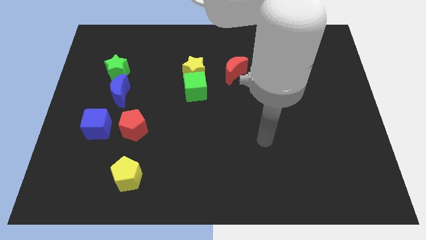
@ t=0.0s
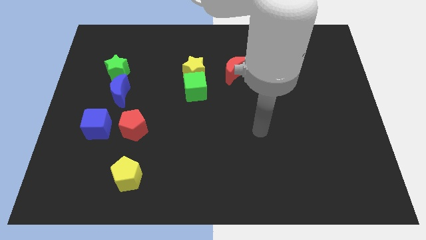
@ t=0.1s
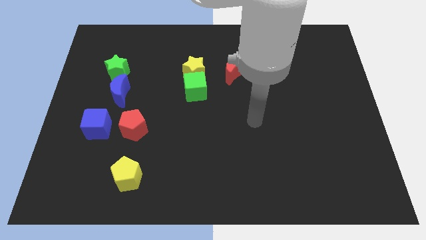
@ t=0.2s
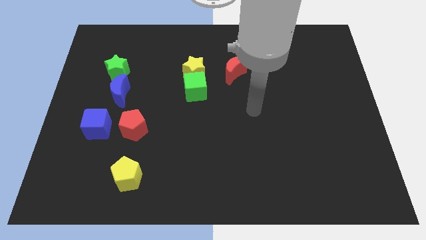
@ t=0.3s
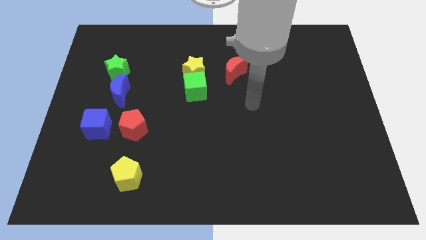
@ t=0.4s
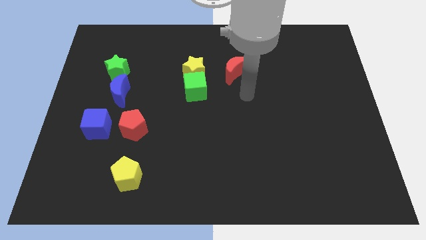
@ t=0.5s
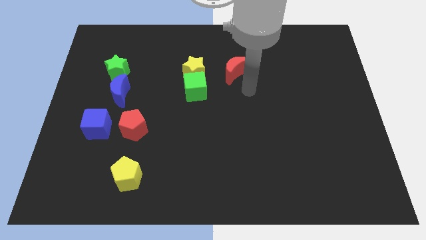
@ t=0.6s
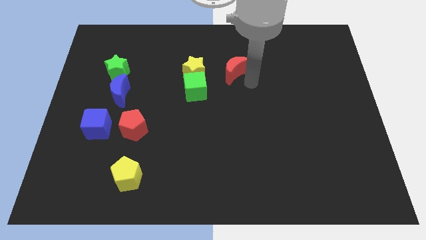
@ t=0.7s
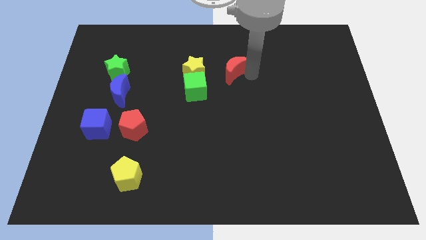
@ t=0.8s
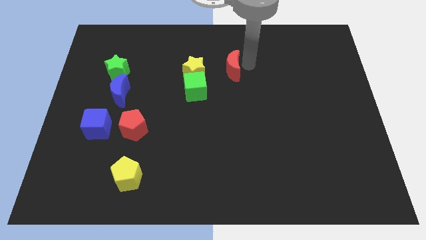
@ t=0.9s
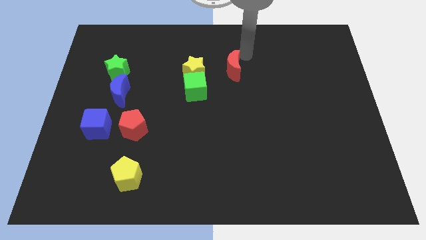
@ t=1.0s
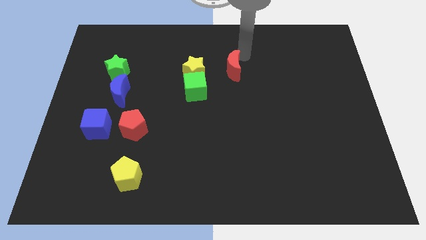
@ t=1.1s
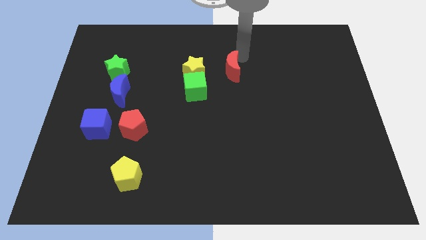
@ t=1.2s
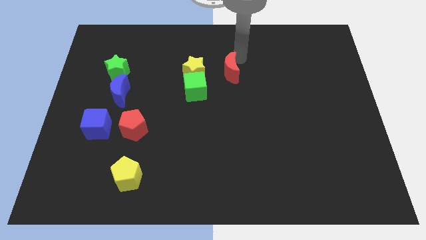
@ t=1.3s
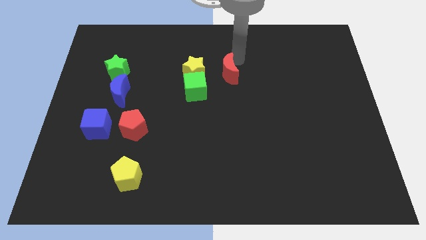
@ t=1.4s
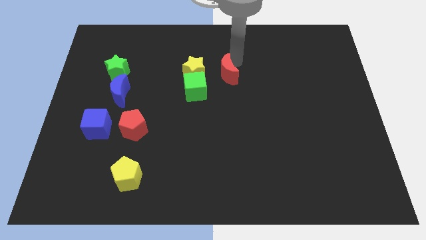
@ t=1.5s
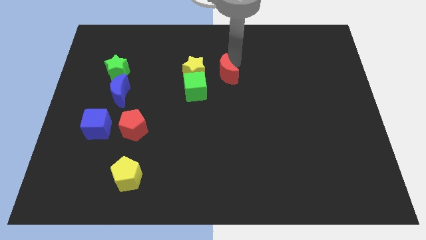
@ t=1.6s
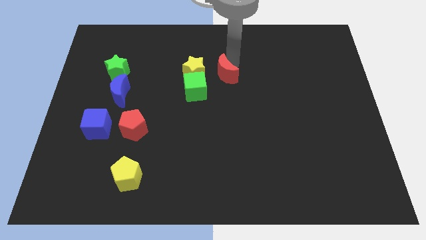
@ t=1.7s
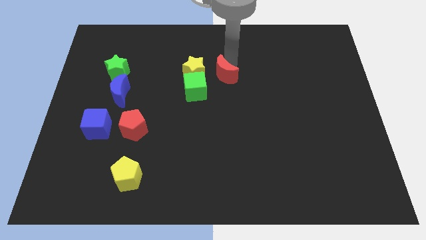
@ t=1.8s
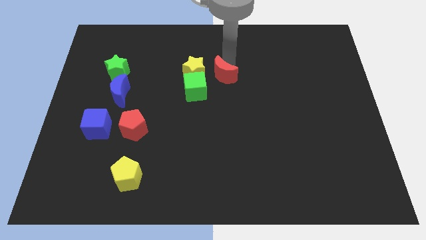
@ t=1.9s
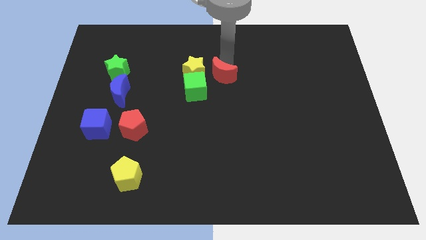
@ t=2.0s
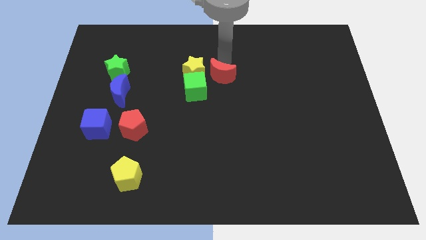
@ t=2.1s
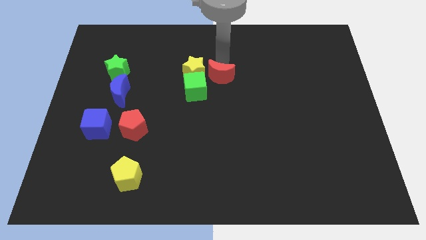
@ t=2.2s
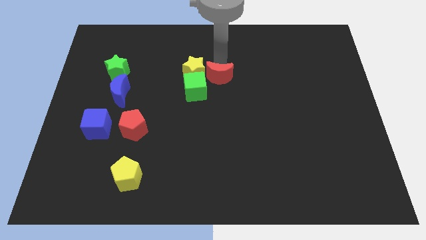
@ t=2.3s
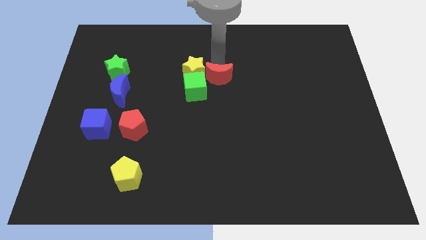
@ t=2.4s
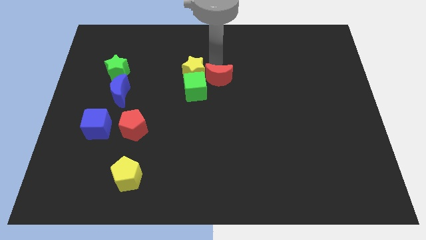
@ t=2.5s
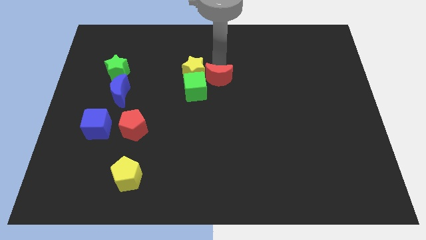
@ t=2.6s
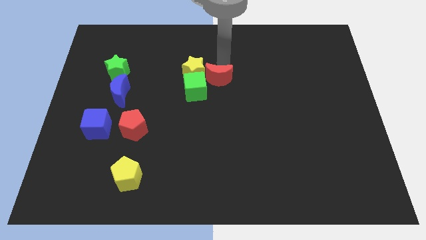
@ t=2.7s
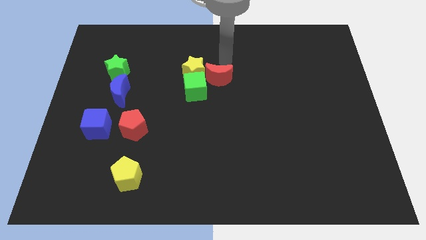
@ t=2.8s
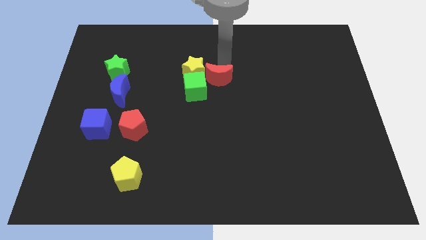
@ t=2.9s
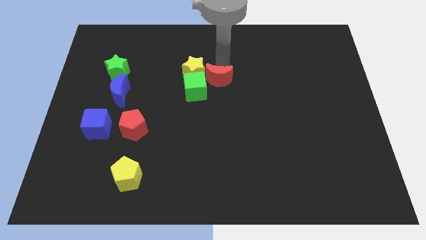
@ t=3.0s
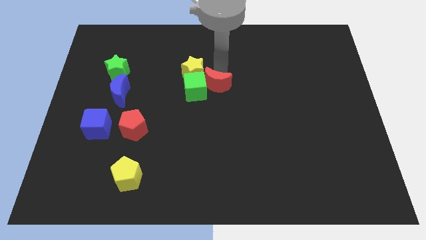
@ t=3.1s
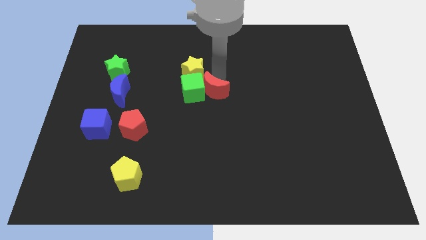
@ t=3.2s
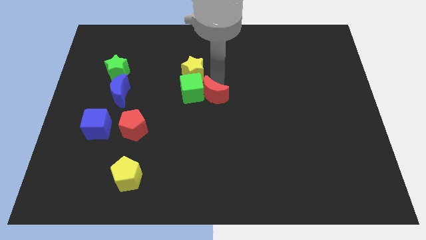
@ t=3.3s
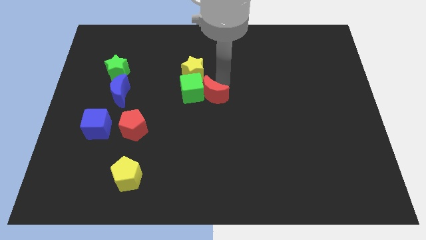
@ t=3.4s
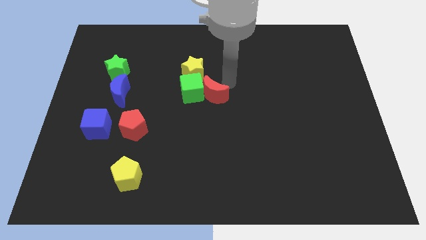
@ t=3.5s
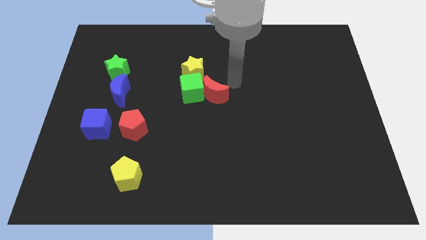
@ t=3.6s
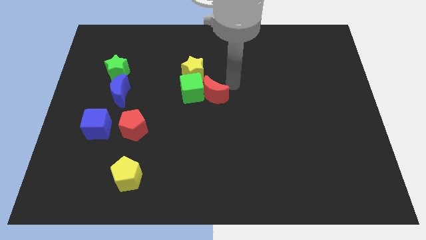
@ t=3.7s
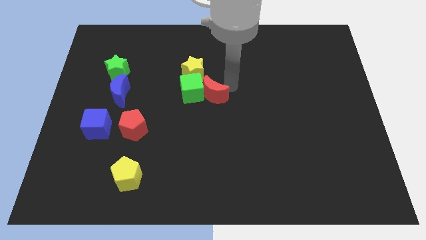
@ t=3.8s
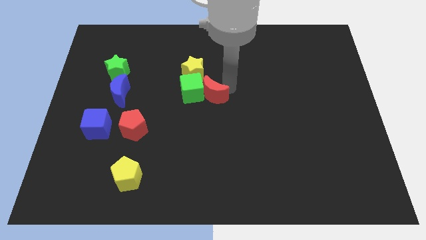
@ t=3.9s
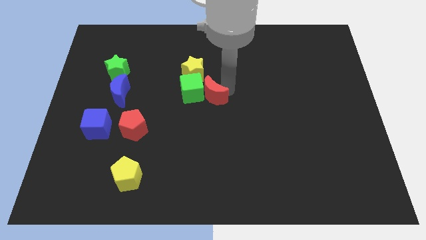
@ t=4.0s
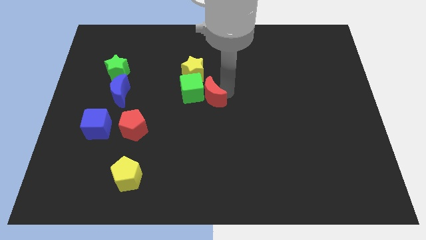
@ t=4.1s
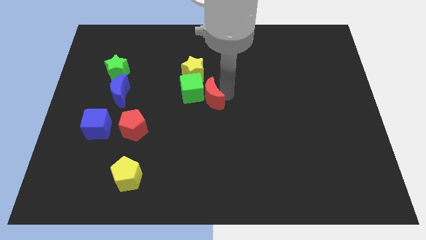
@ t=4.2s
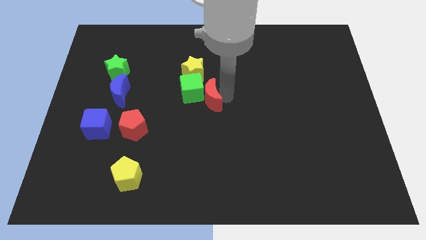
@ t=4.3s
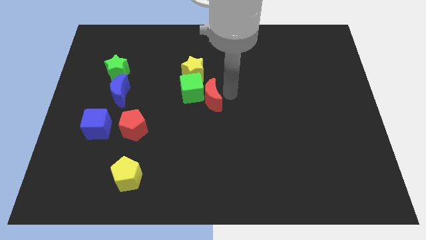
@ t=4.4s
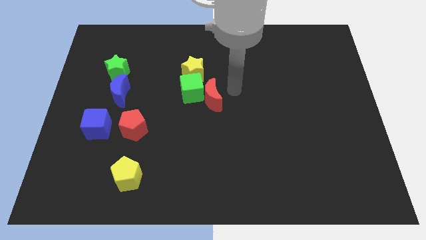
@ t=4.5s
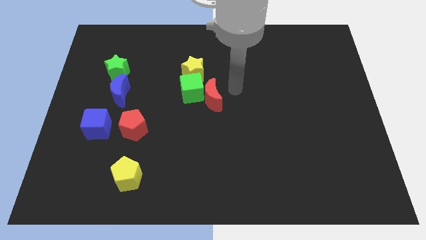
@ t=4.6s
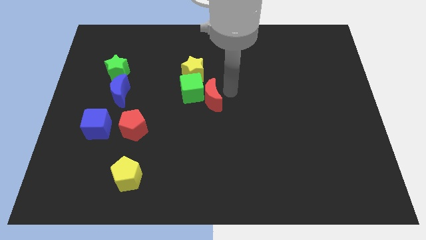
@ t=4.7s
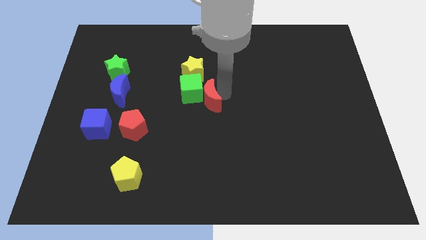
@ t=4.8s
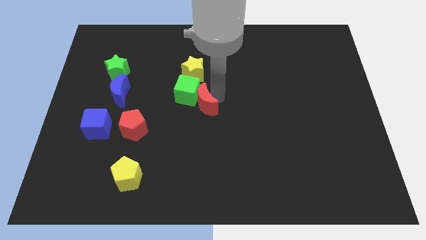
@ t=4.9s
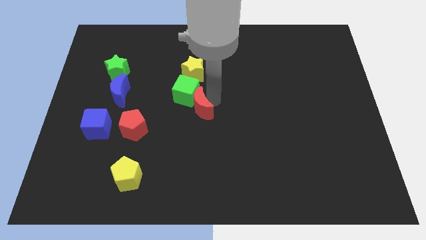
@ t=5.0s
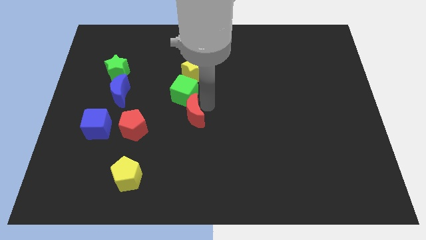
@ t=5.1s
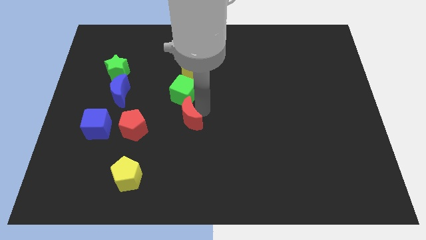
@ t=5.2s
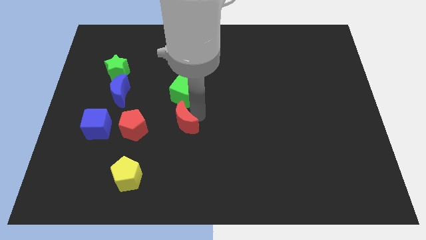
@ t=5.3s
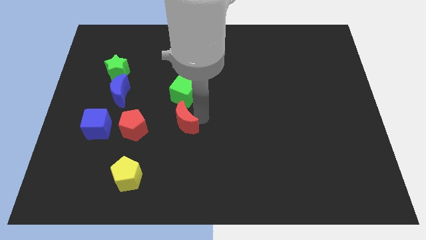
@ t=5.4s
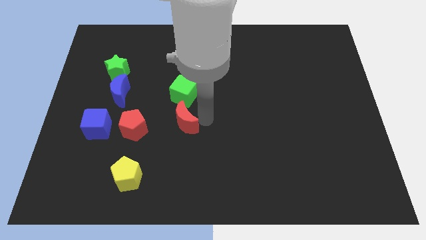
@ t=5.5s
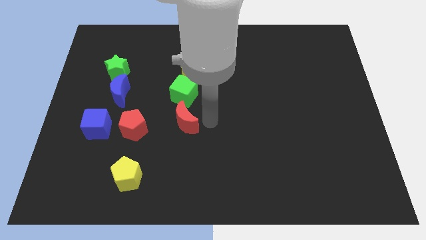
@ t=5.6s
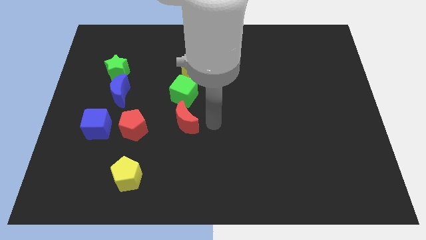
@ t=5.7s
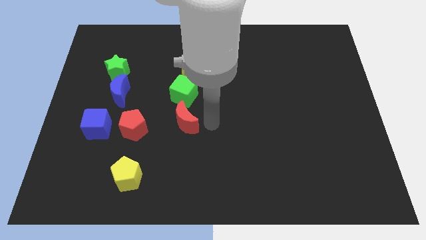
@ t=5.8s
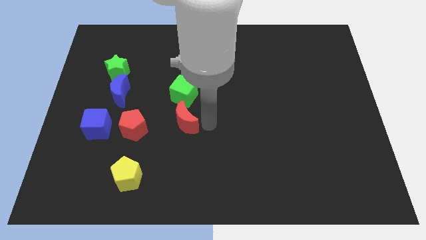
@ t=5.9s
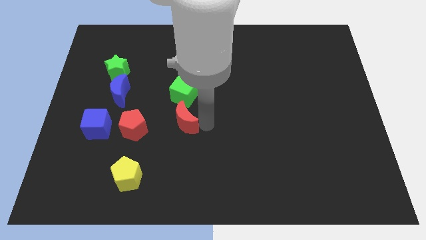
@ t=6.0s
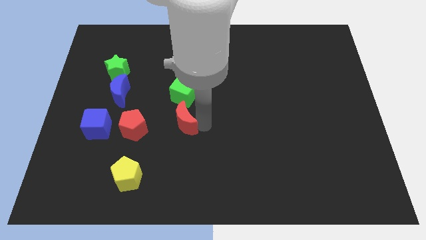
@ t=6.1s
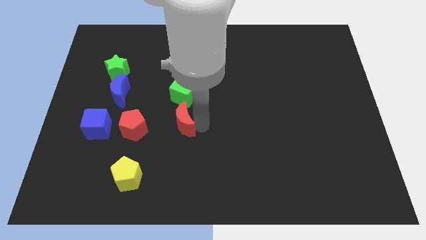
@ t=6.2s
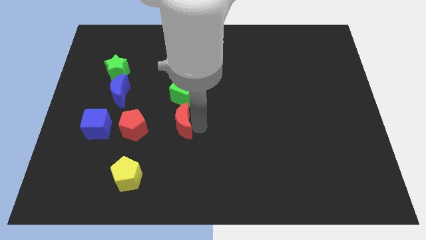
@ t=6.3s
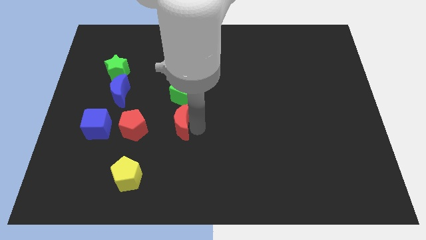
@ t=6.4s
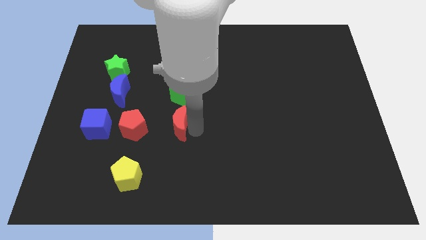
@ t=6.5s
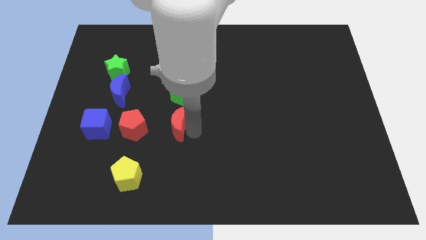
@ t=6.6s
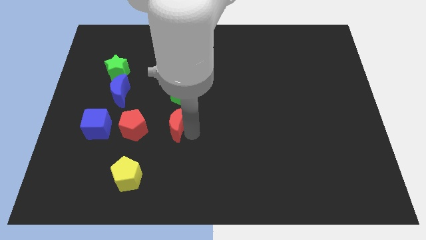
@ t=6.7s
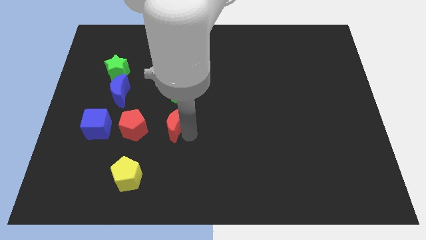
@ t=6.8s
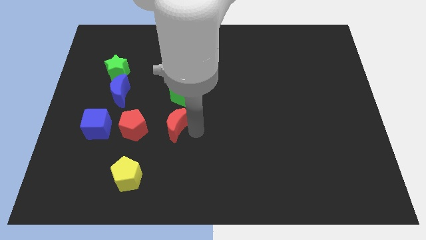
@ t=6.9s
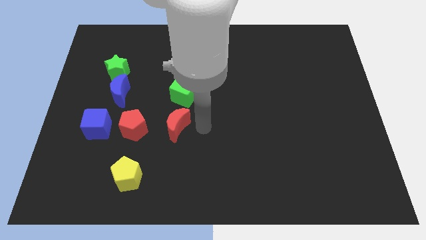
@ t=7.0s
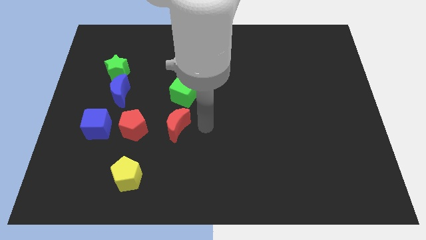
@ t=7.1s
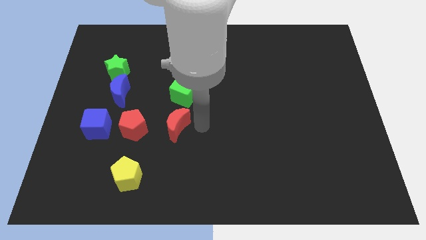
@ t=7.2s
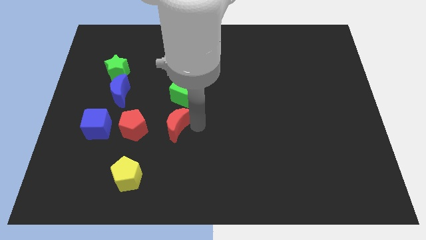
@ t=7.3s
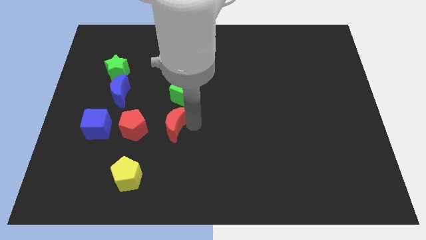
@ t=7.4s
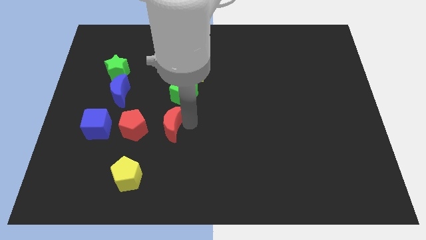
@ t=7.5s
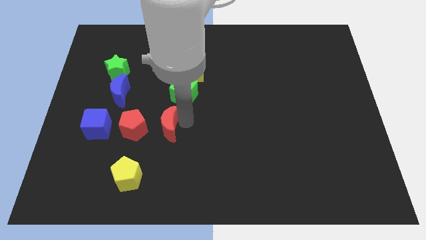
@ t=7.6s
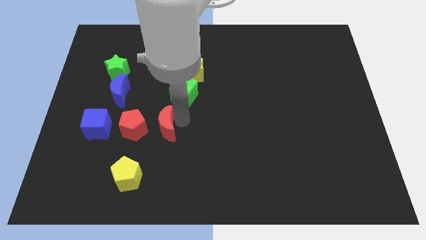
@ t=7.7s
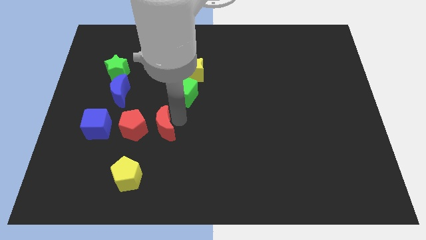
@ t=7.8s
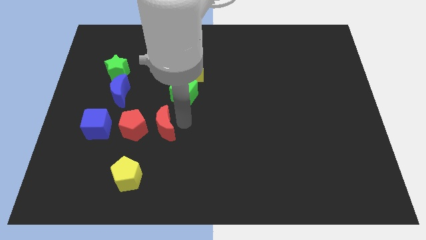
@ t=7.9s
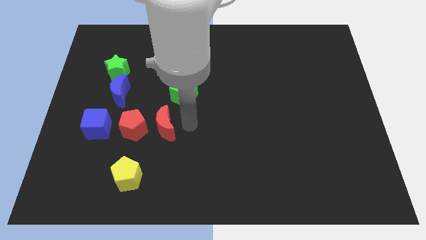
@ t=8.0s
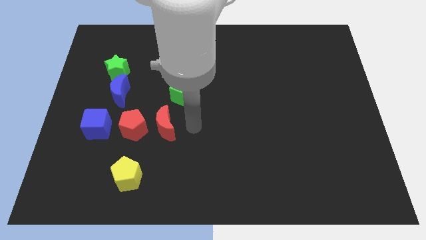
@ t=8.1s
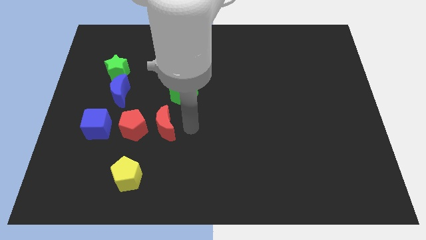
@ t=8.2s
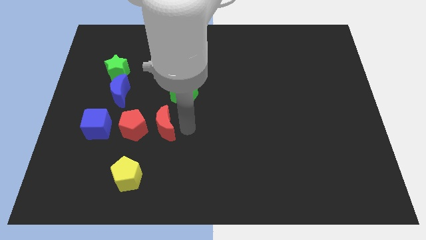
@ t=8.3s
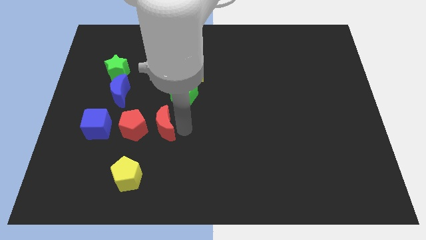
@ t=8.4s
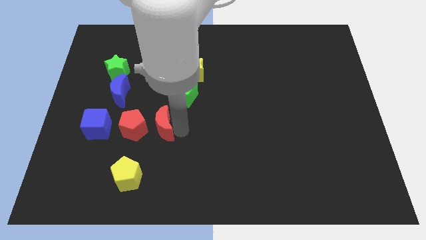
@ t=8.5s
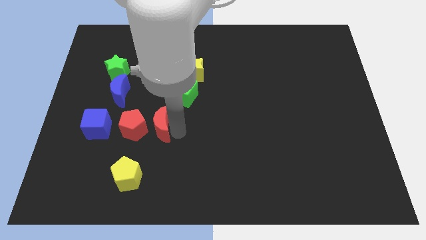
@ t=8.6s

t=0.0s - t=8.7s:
slide the red moon next to the red pentagon
